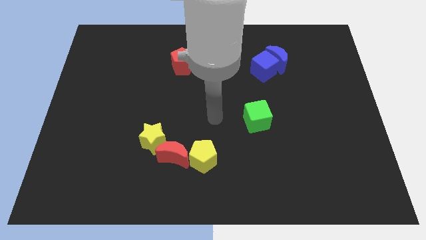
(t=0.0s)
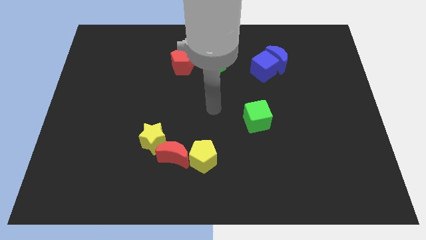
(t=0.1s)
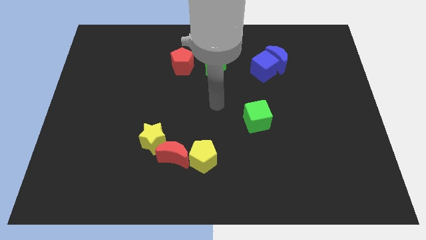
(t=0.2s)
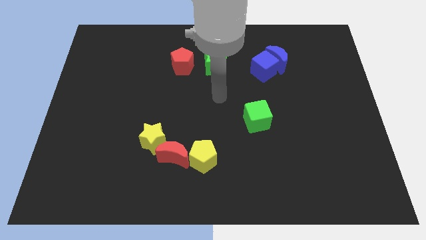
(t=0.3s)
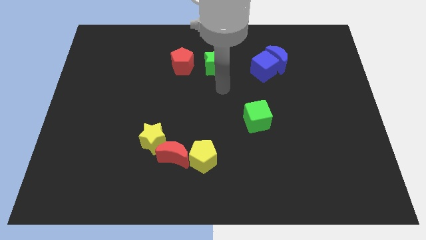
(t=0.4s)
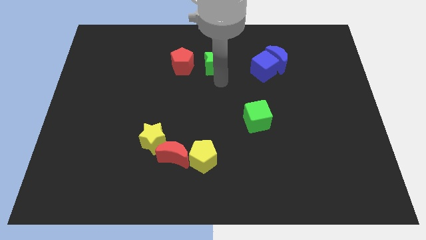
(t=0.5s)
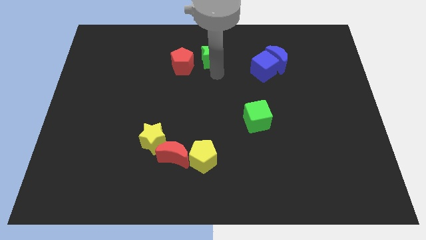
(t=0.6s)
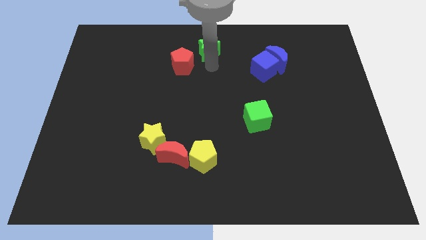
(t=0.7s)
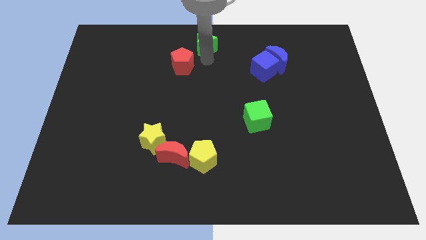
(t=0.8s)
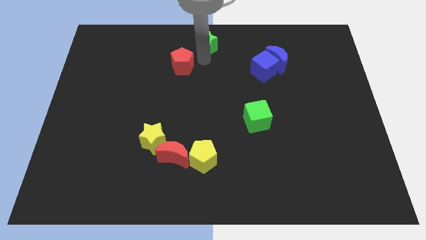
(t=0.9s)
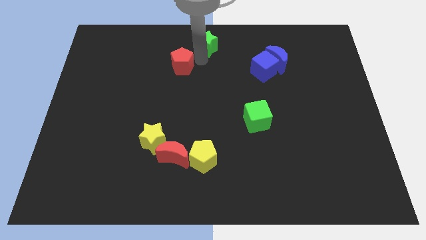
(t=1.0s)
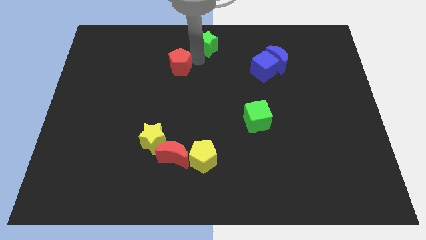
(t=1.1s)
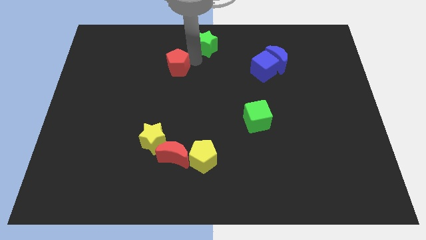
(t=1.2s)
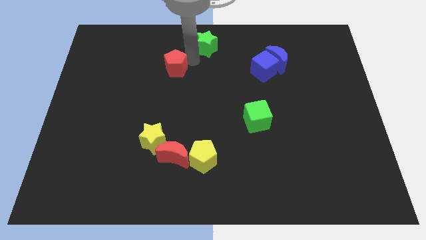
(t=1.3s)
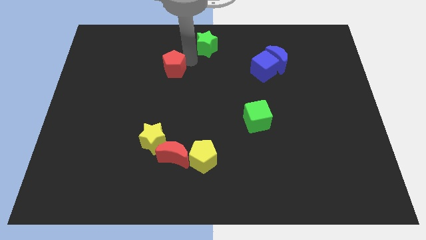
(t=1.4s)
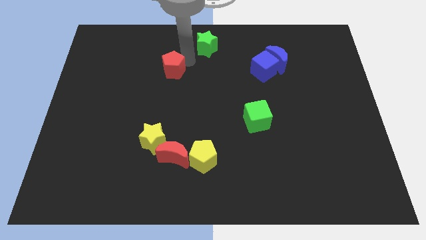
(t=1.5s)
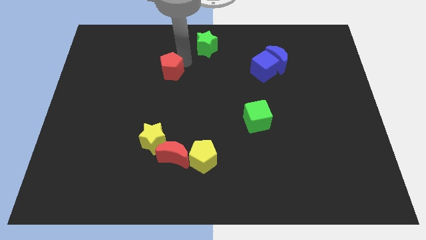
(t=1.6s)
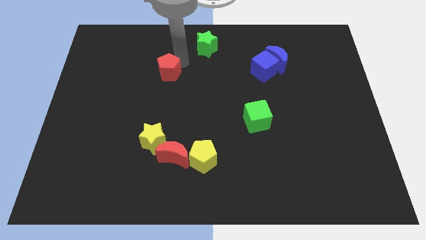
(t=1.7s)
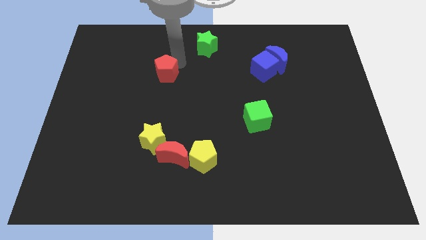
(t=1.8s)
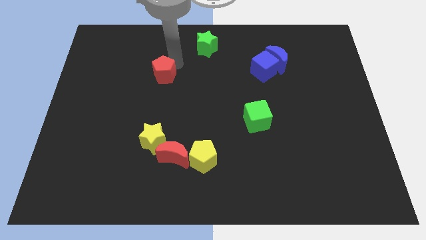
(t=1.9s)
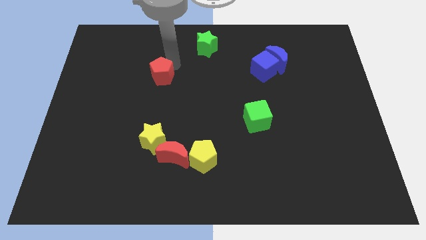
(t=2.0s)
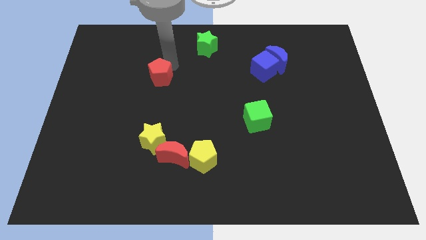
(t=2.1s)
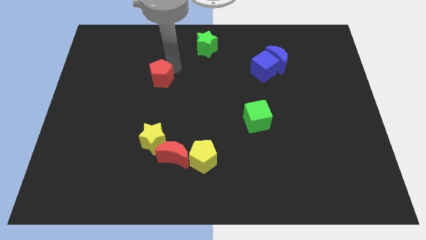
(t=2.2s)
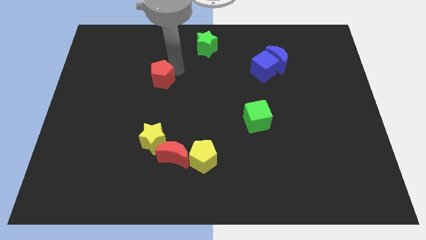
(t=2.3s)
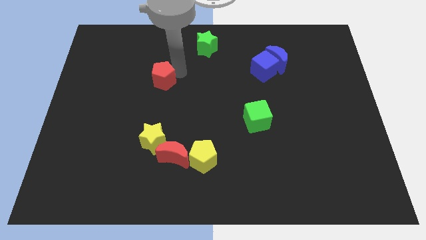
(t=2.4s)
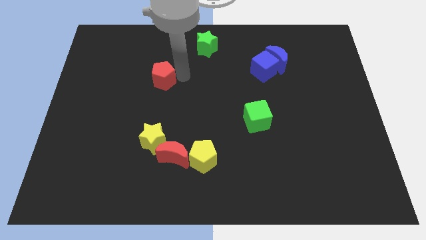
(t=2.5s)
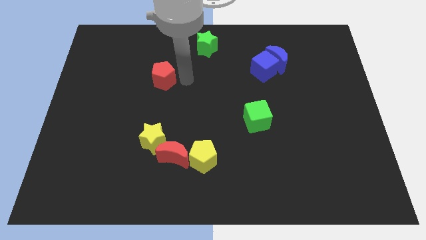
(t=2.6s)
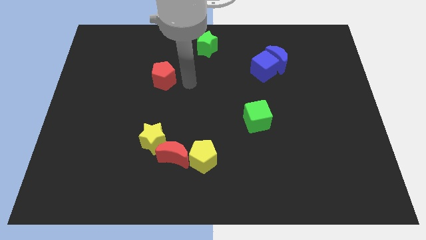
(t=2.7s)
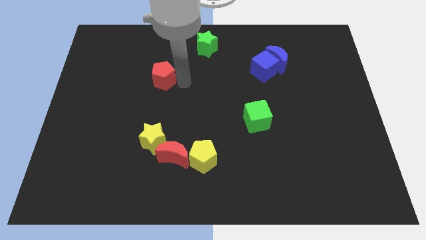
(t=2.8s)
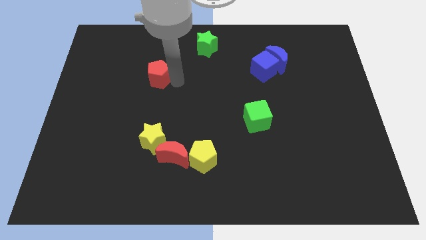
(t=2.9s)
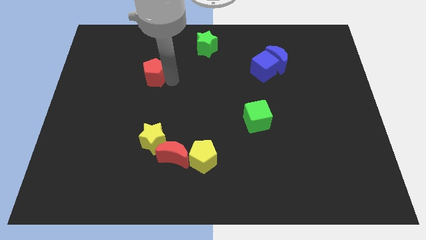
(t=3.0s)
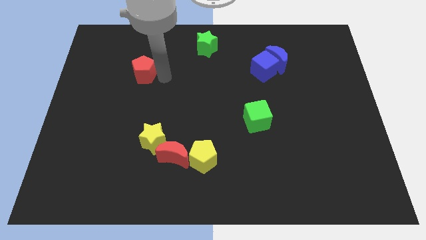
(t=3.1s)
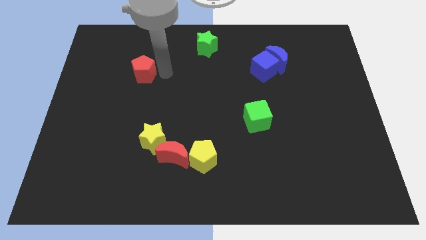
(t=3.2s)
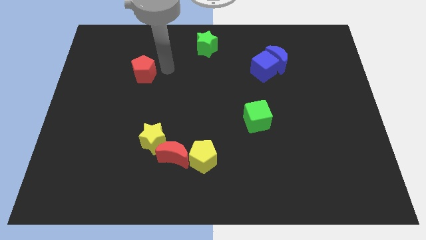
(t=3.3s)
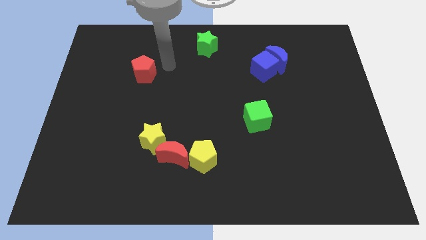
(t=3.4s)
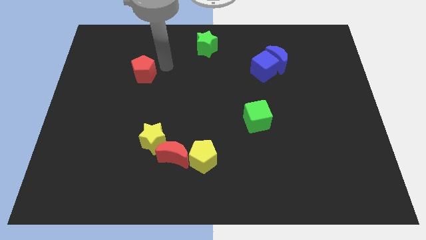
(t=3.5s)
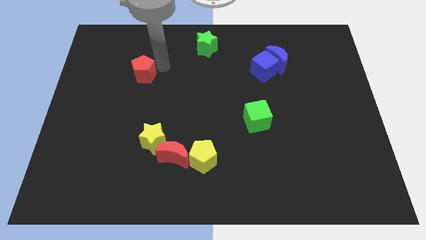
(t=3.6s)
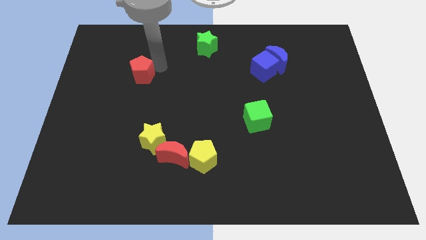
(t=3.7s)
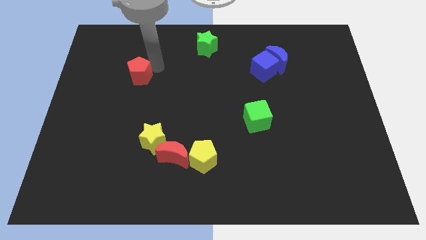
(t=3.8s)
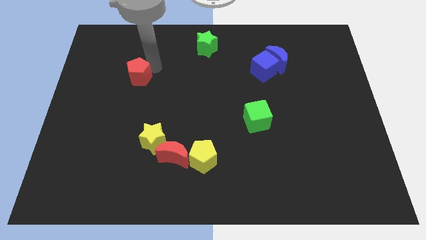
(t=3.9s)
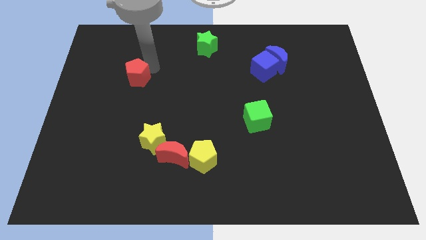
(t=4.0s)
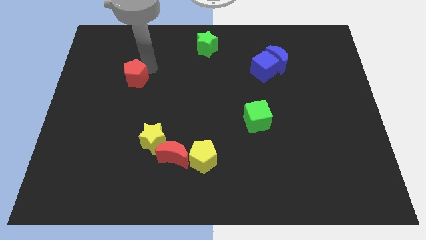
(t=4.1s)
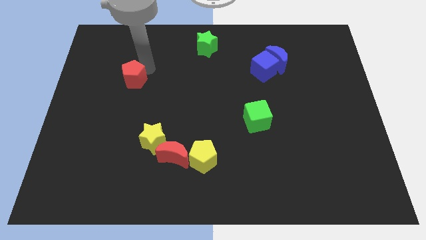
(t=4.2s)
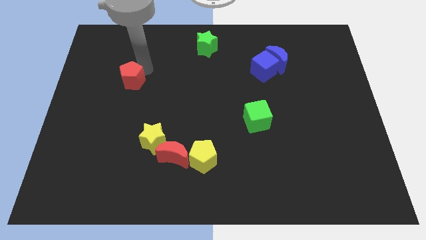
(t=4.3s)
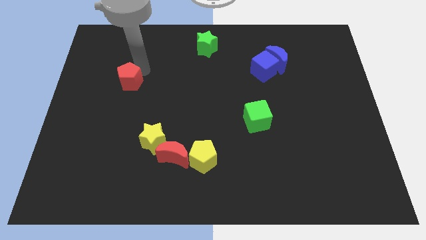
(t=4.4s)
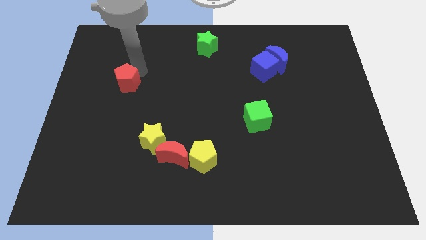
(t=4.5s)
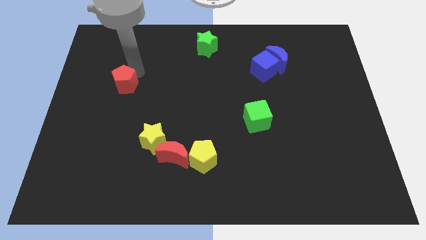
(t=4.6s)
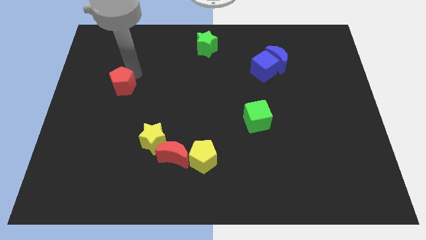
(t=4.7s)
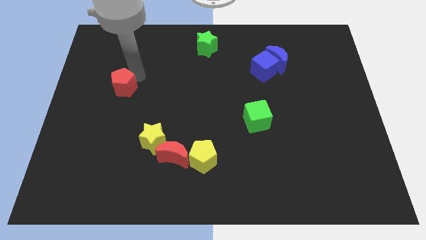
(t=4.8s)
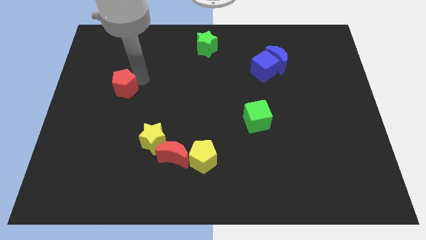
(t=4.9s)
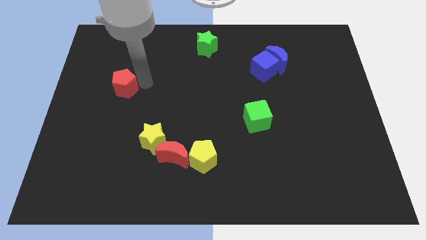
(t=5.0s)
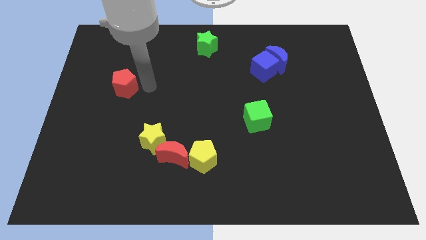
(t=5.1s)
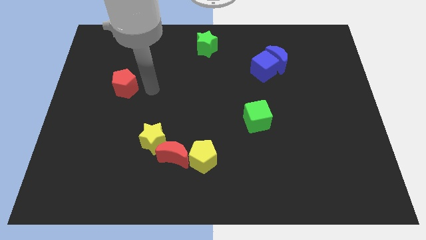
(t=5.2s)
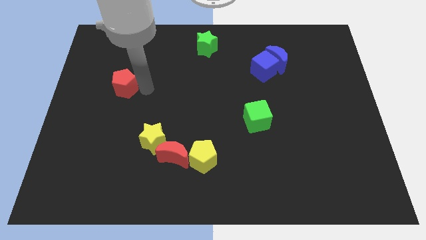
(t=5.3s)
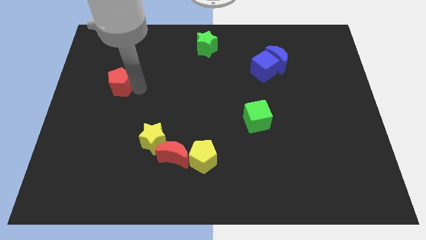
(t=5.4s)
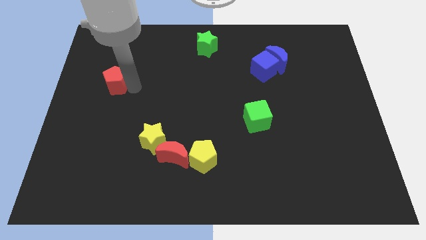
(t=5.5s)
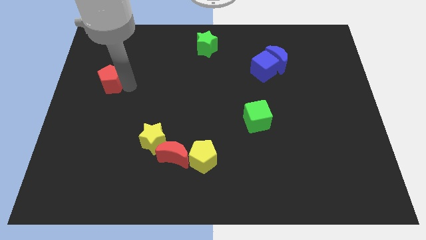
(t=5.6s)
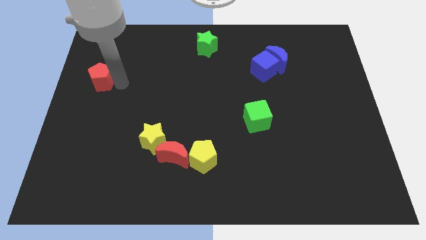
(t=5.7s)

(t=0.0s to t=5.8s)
slide the red pentagon to the left side of the board

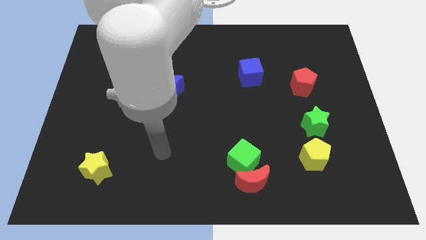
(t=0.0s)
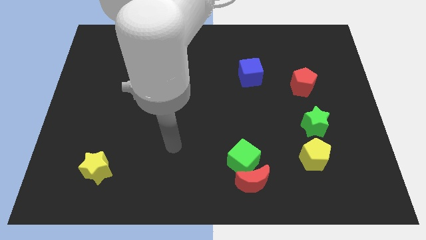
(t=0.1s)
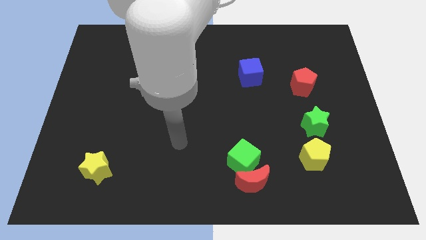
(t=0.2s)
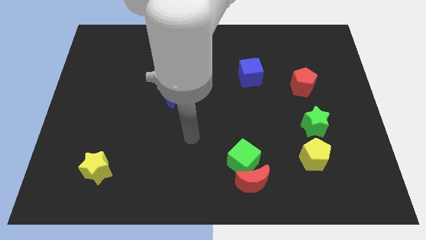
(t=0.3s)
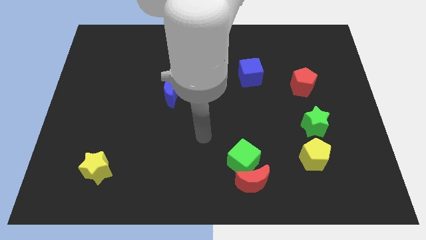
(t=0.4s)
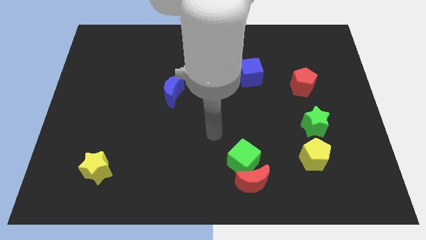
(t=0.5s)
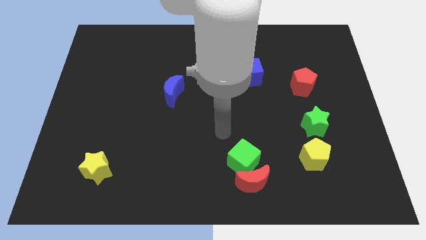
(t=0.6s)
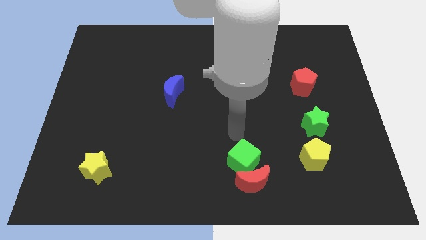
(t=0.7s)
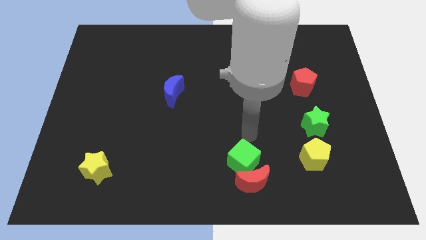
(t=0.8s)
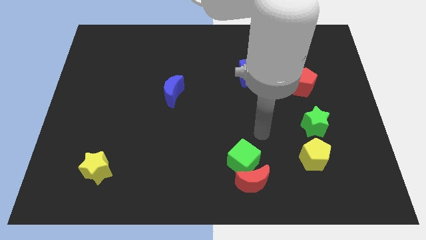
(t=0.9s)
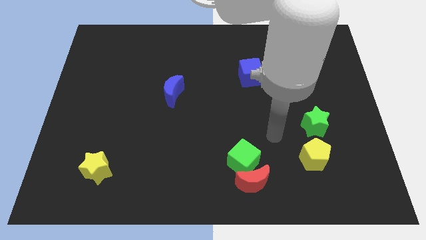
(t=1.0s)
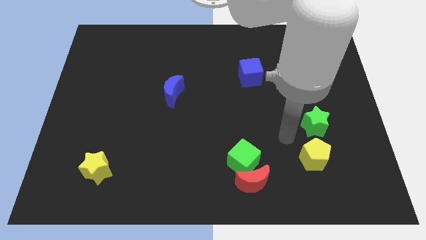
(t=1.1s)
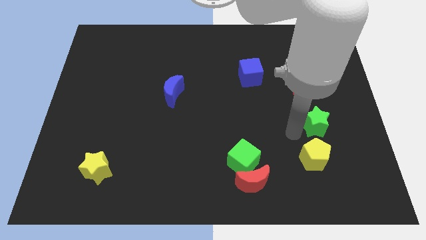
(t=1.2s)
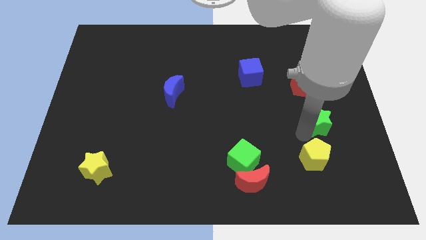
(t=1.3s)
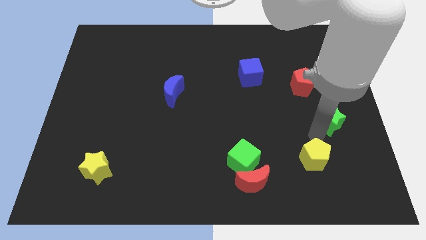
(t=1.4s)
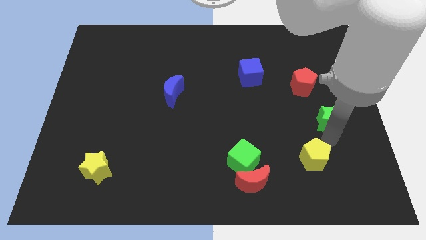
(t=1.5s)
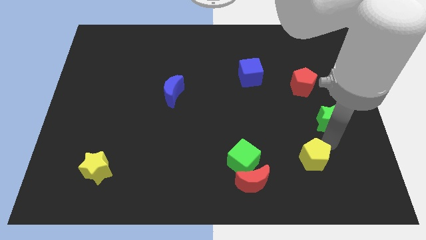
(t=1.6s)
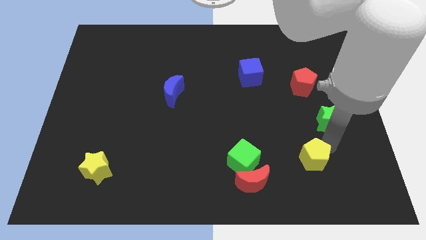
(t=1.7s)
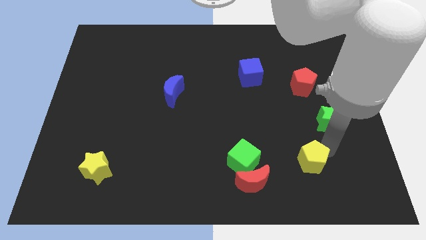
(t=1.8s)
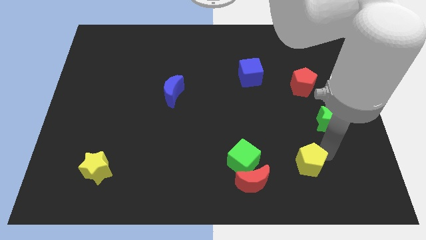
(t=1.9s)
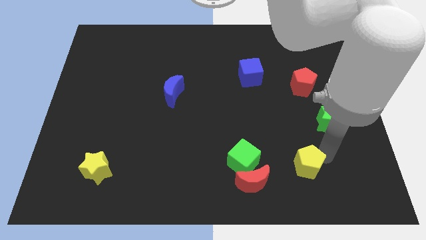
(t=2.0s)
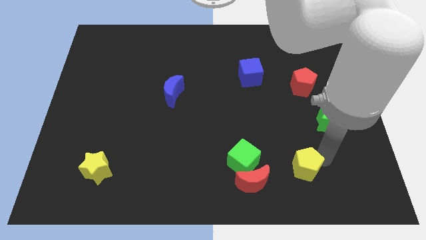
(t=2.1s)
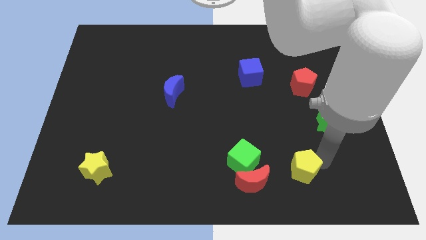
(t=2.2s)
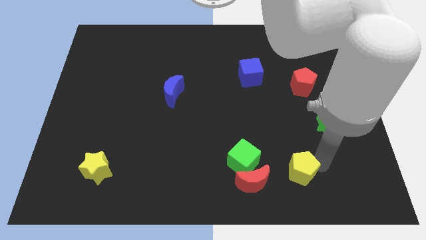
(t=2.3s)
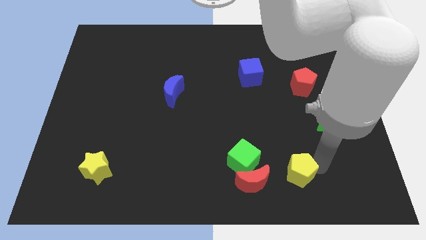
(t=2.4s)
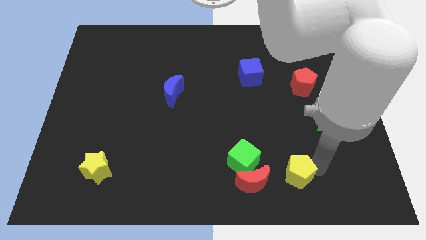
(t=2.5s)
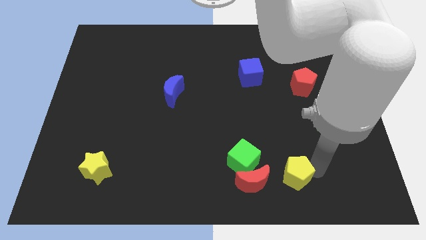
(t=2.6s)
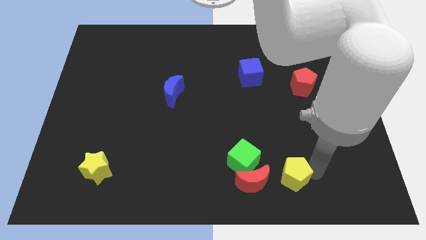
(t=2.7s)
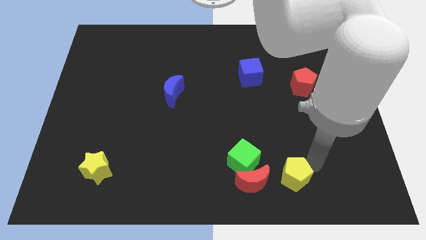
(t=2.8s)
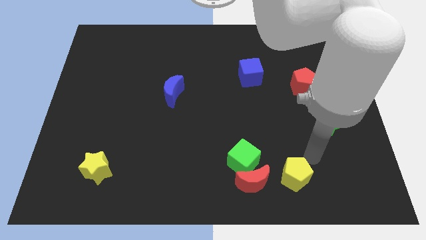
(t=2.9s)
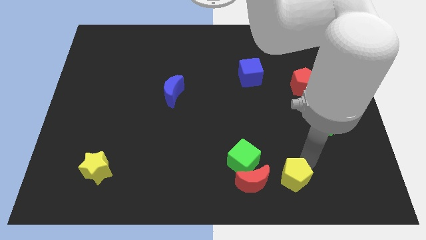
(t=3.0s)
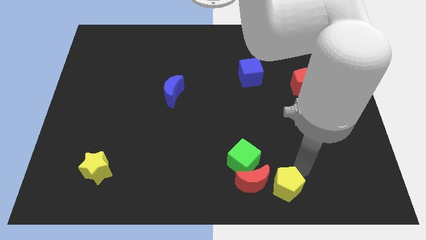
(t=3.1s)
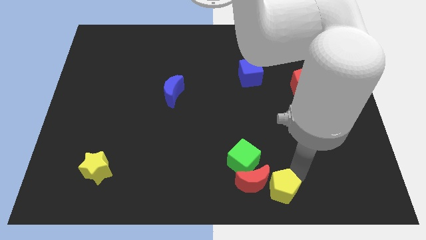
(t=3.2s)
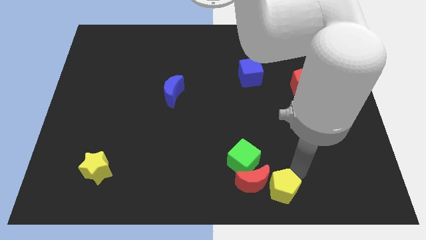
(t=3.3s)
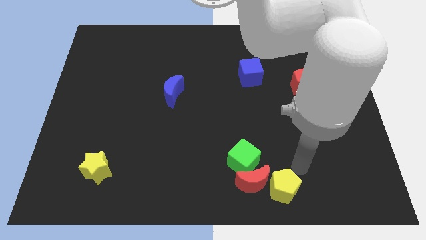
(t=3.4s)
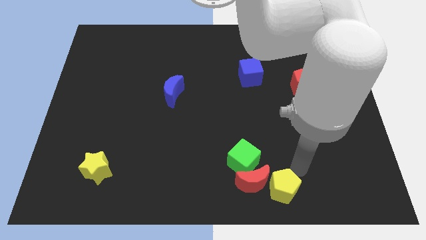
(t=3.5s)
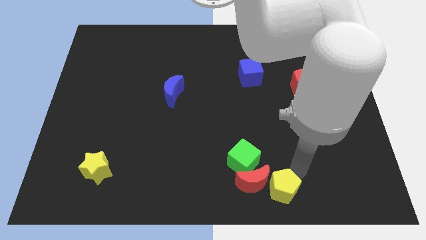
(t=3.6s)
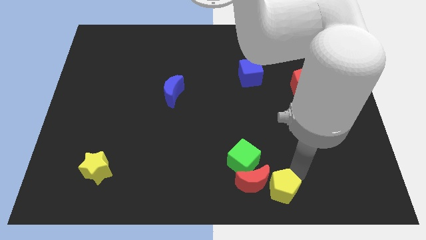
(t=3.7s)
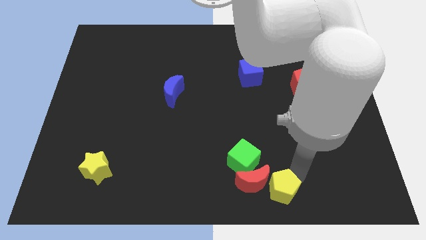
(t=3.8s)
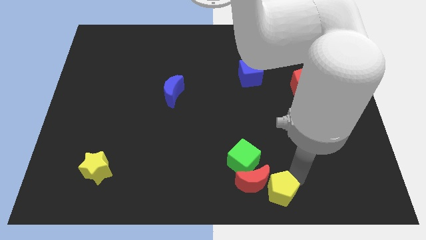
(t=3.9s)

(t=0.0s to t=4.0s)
push the yellow pentagon to the bottom side
